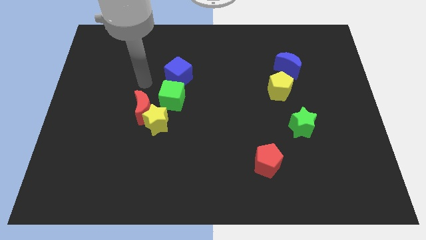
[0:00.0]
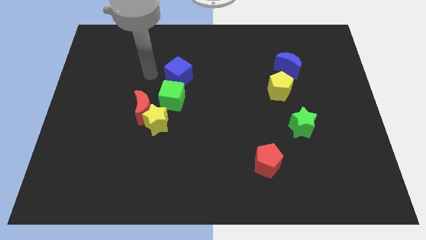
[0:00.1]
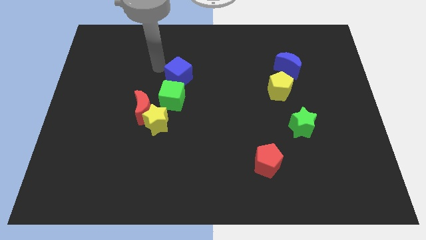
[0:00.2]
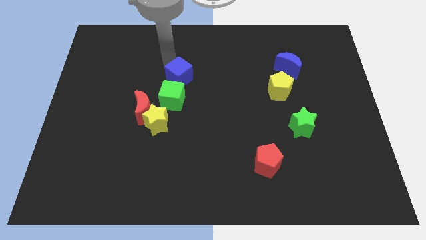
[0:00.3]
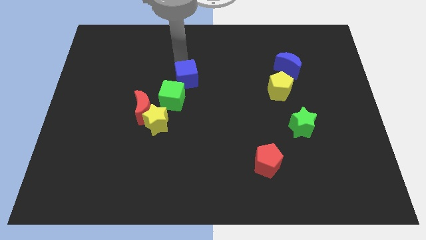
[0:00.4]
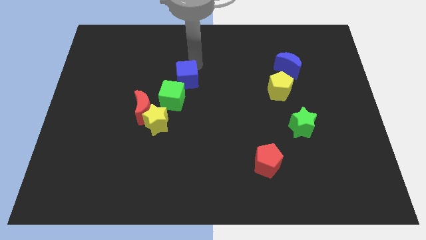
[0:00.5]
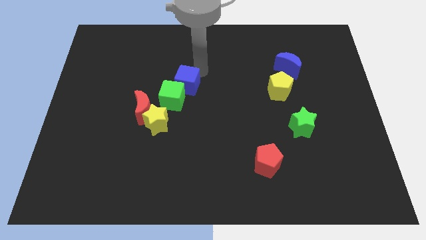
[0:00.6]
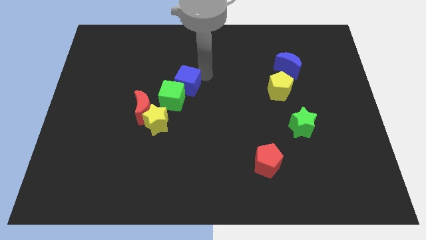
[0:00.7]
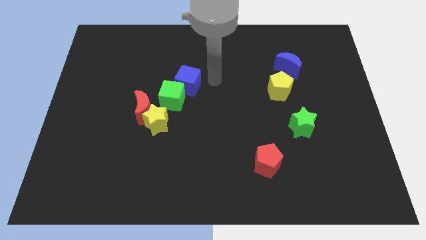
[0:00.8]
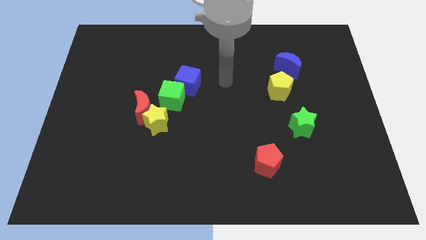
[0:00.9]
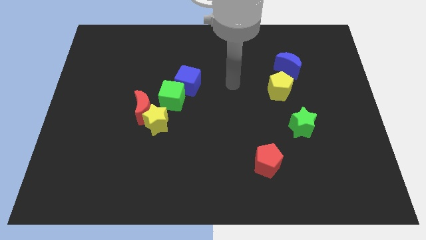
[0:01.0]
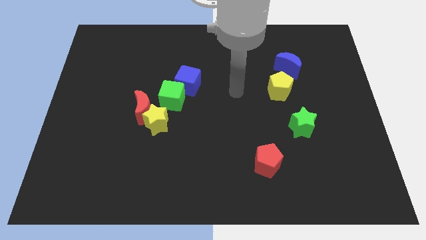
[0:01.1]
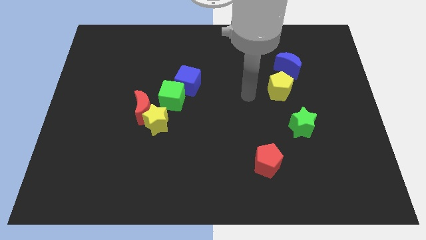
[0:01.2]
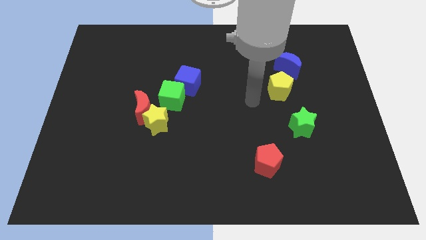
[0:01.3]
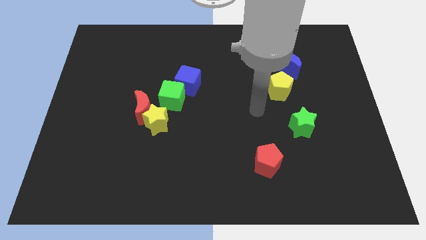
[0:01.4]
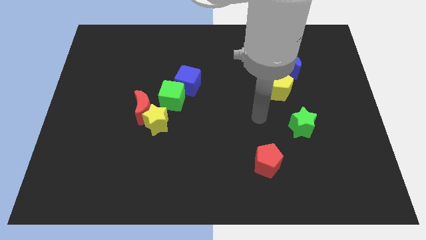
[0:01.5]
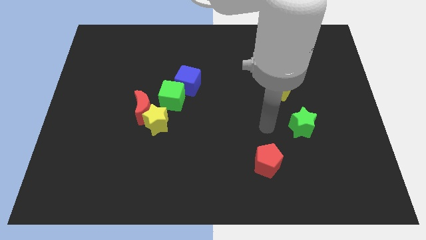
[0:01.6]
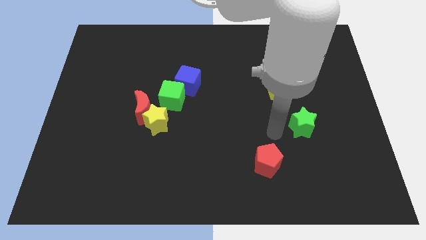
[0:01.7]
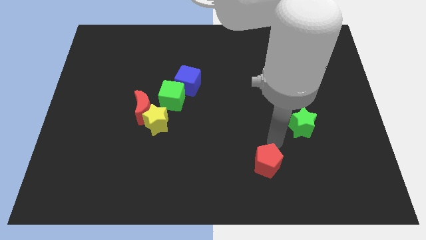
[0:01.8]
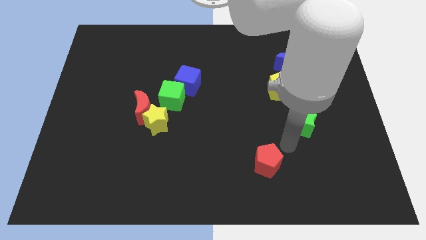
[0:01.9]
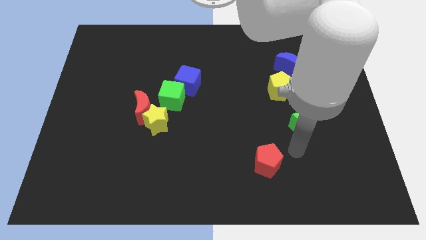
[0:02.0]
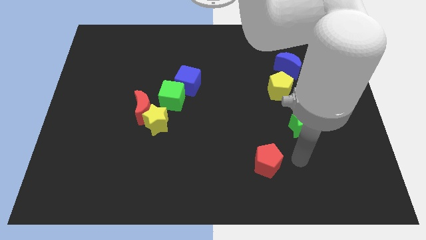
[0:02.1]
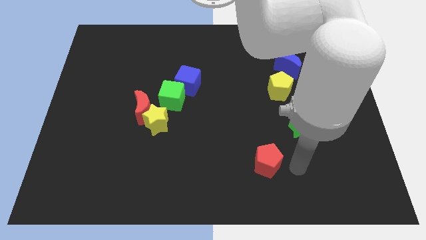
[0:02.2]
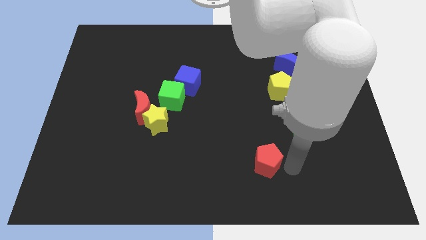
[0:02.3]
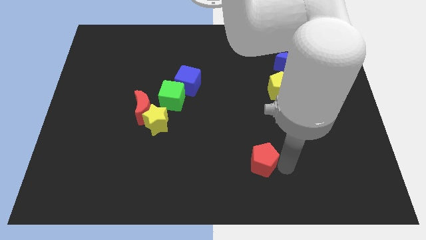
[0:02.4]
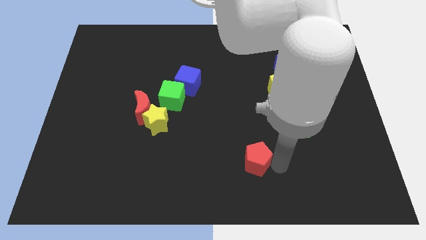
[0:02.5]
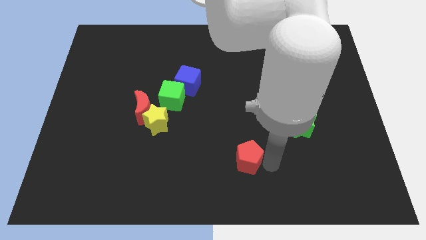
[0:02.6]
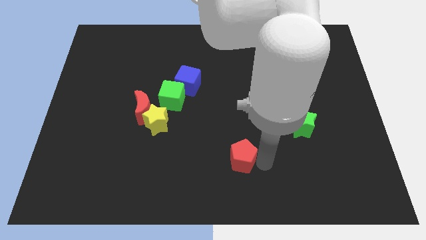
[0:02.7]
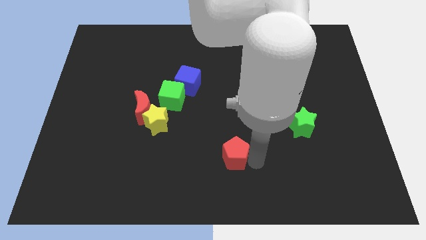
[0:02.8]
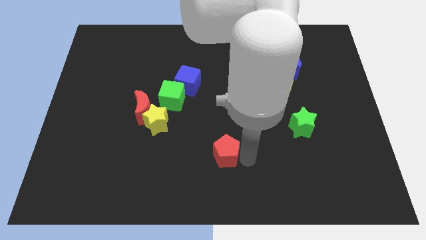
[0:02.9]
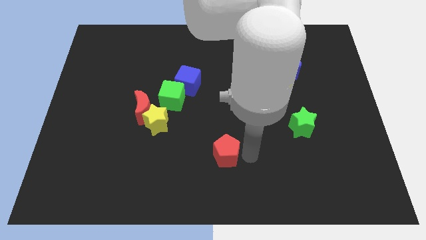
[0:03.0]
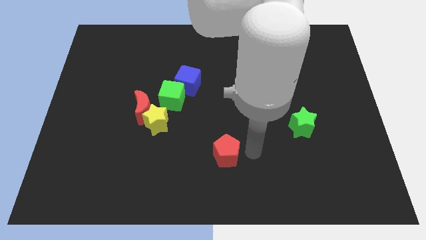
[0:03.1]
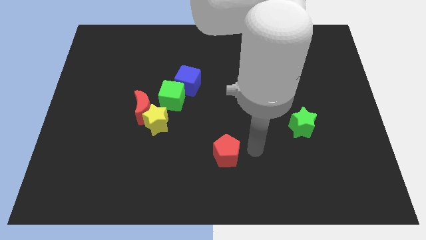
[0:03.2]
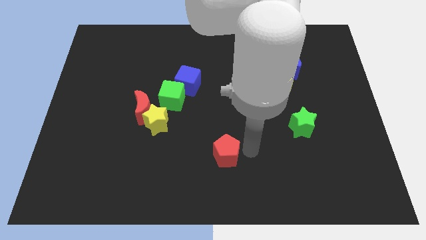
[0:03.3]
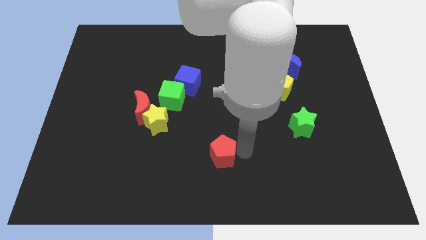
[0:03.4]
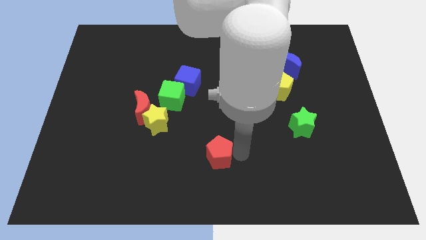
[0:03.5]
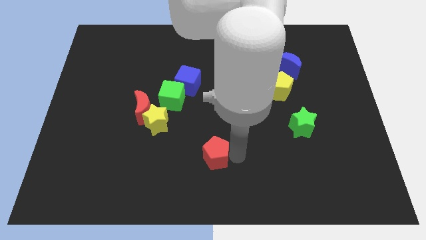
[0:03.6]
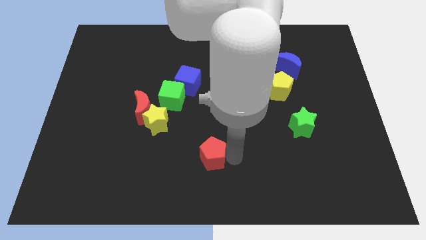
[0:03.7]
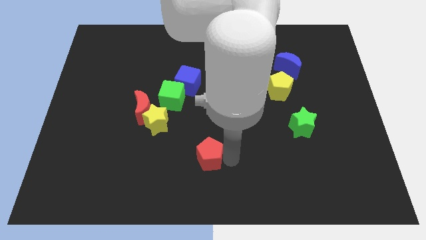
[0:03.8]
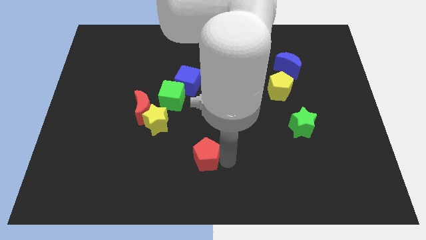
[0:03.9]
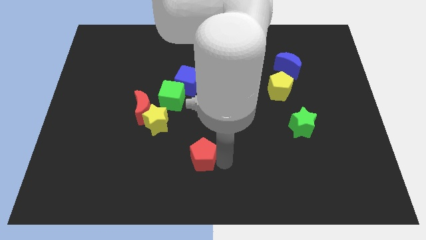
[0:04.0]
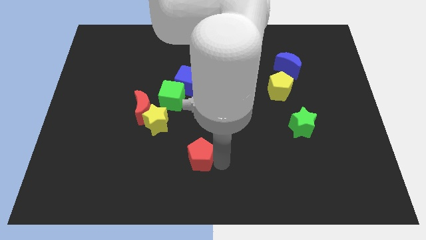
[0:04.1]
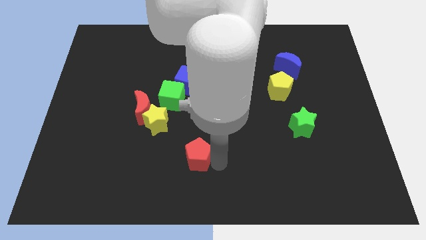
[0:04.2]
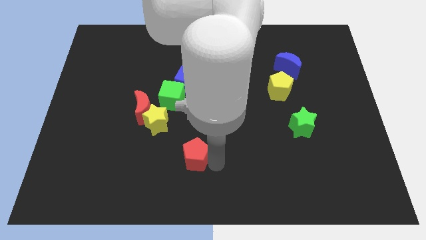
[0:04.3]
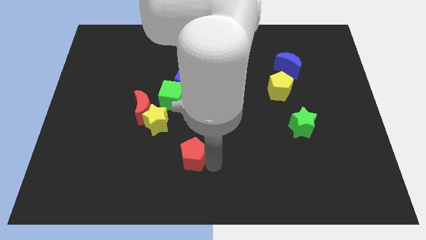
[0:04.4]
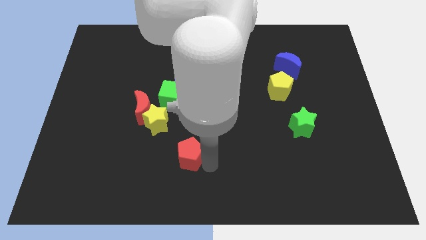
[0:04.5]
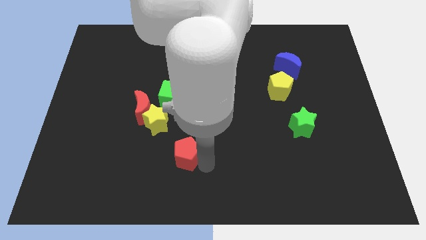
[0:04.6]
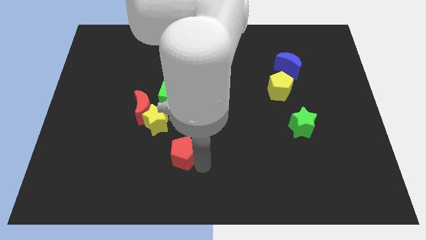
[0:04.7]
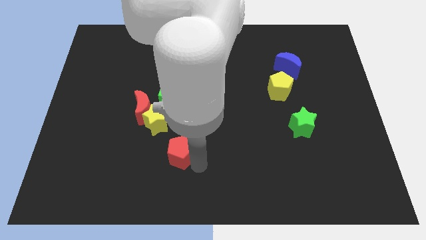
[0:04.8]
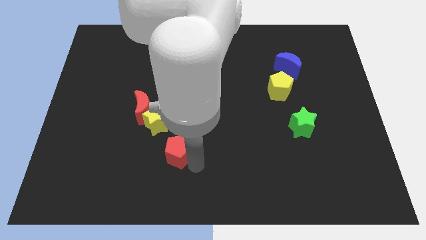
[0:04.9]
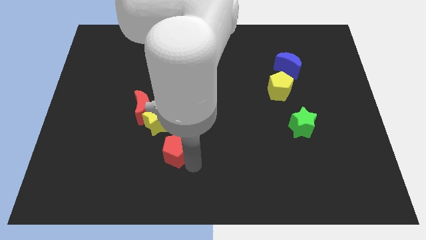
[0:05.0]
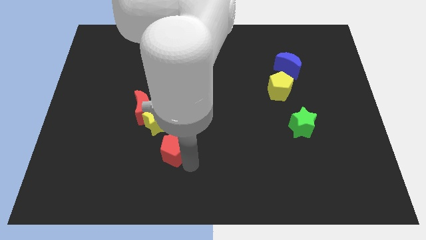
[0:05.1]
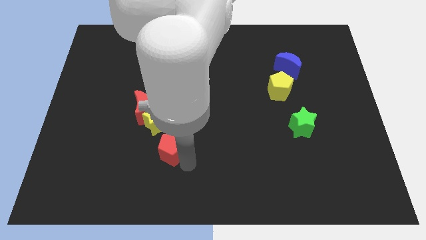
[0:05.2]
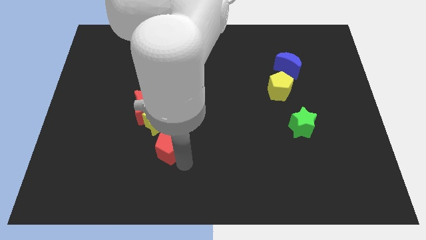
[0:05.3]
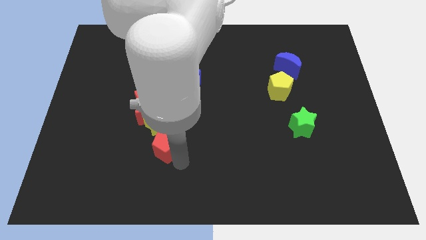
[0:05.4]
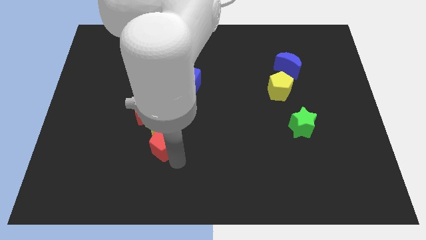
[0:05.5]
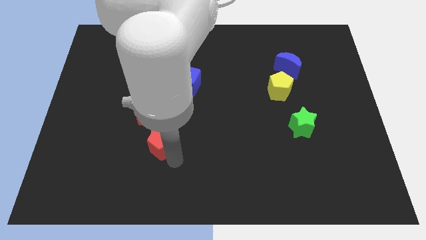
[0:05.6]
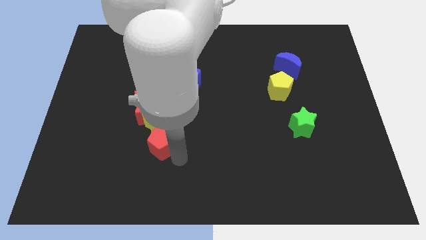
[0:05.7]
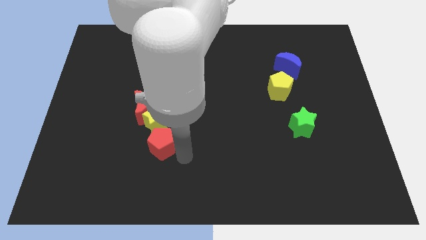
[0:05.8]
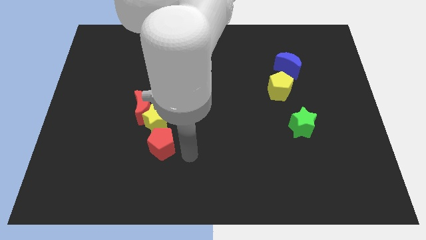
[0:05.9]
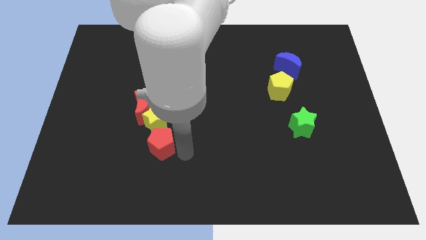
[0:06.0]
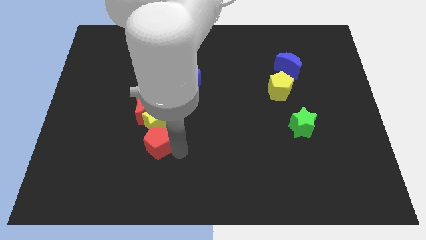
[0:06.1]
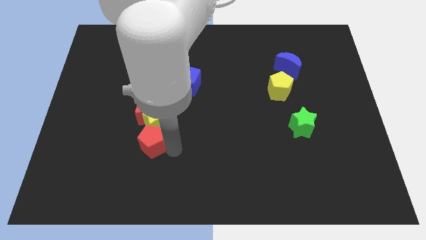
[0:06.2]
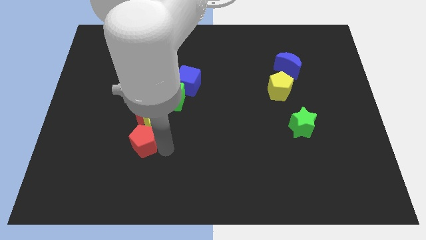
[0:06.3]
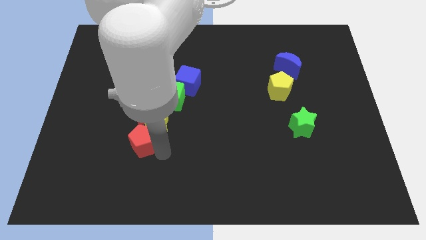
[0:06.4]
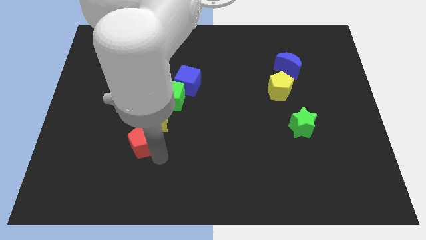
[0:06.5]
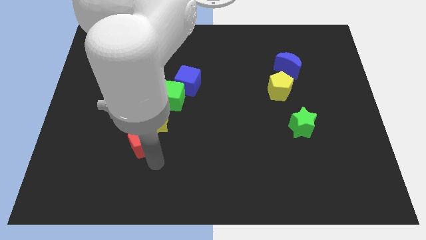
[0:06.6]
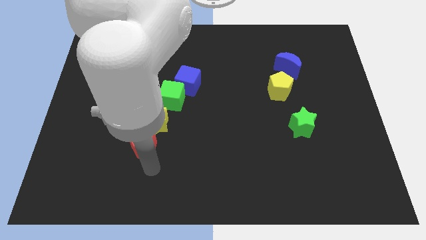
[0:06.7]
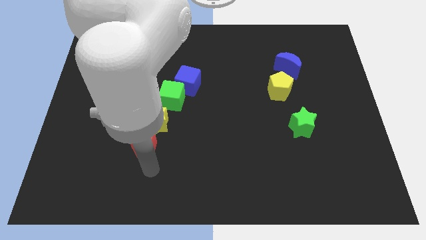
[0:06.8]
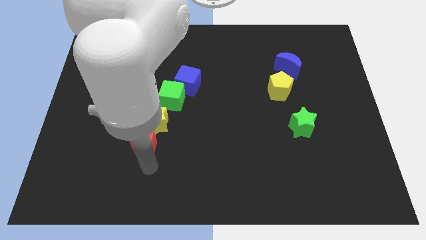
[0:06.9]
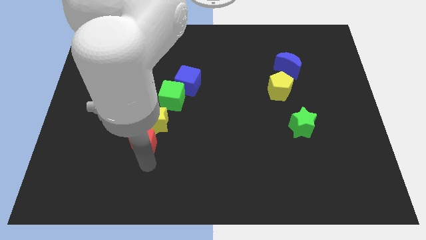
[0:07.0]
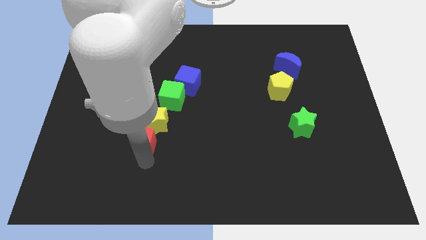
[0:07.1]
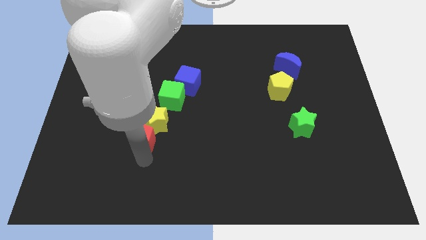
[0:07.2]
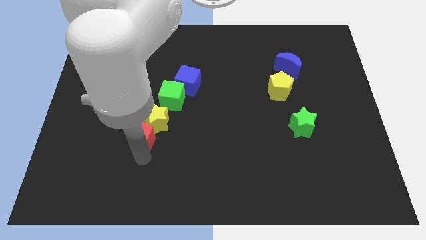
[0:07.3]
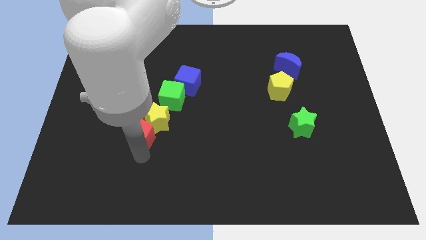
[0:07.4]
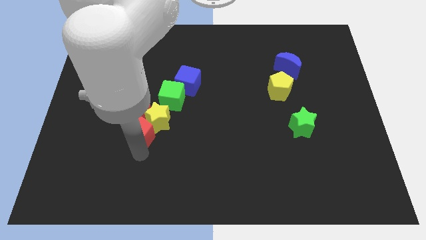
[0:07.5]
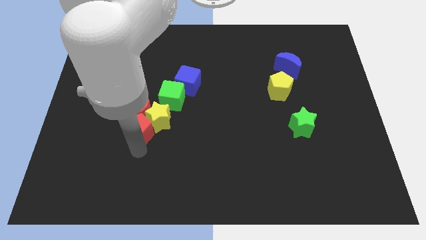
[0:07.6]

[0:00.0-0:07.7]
put the red pentagon close to the red moon
